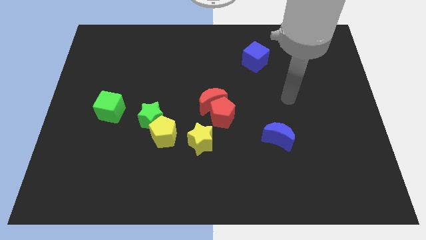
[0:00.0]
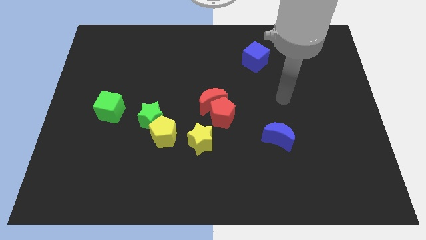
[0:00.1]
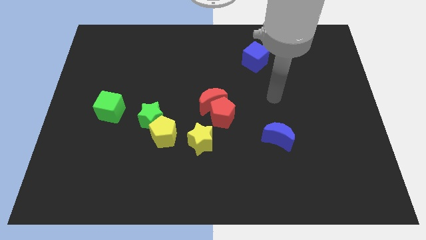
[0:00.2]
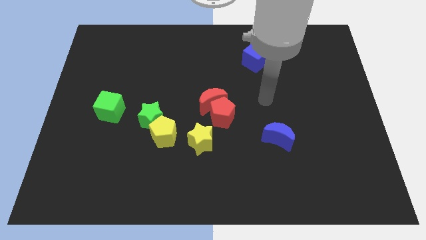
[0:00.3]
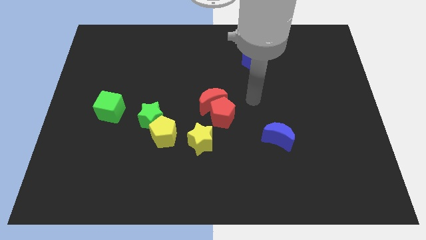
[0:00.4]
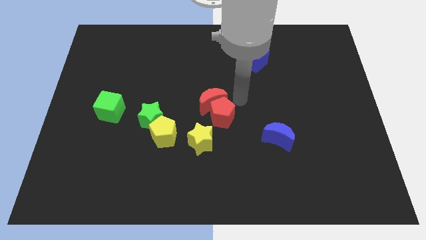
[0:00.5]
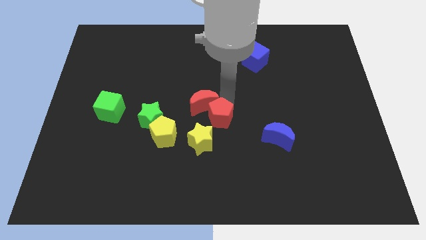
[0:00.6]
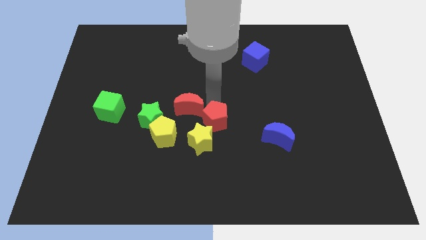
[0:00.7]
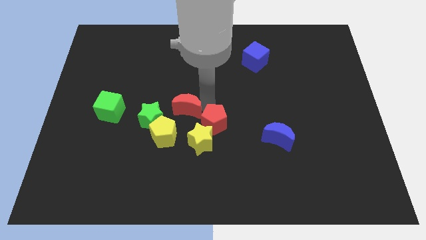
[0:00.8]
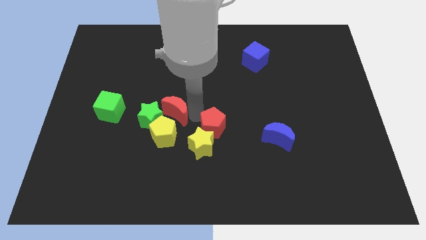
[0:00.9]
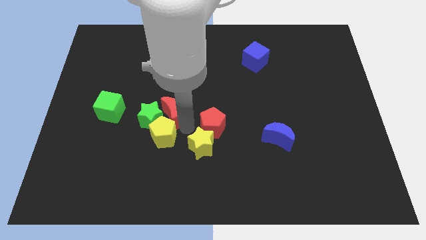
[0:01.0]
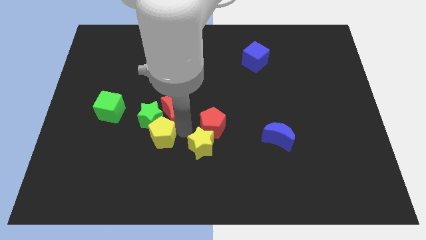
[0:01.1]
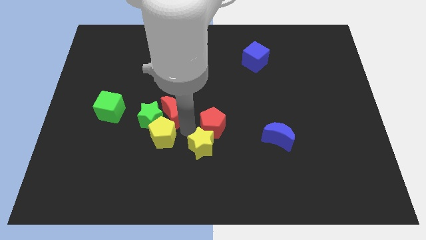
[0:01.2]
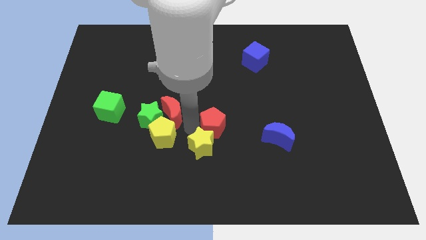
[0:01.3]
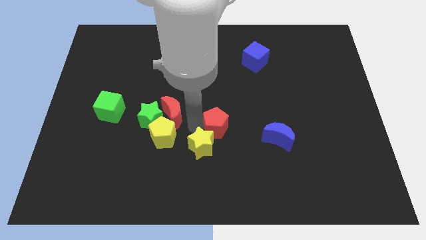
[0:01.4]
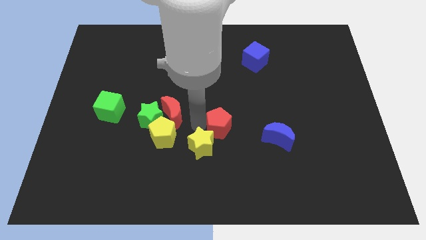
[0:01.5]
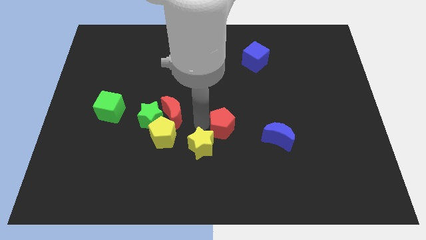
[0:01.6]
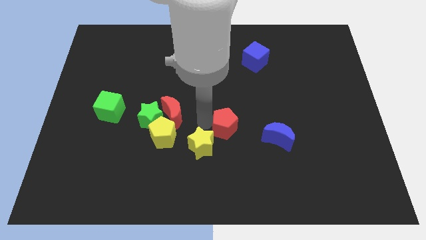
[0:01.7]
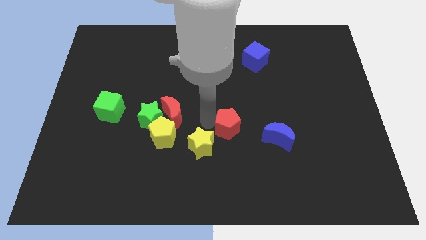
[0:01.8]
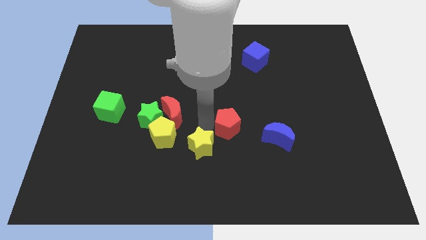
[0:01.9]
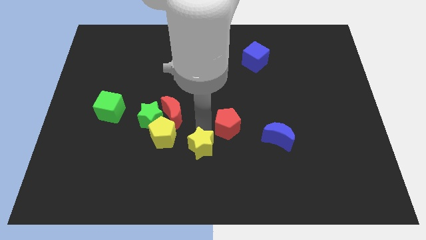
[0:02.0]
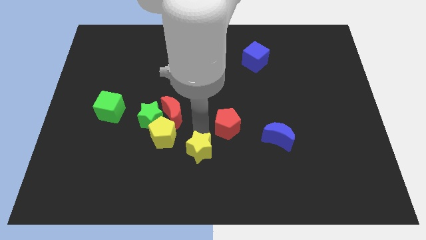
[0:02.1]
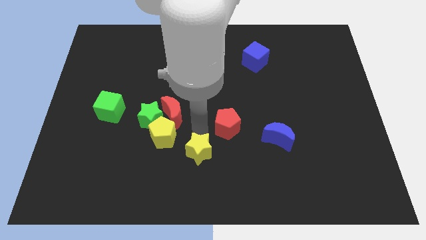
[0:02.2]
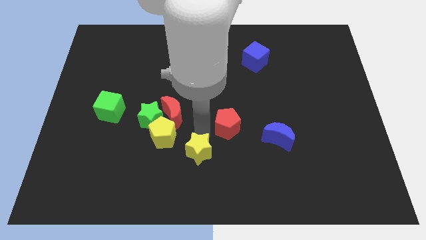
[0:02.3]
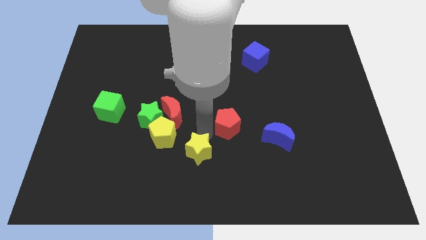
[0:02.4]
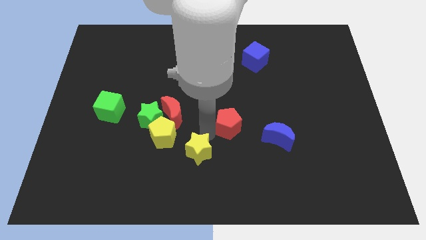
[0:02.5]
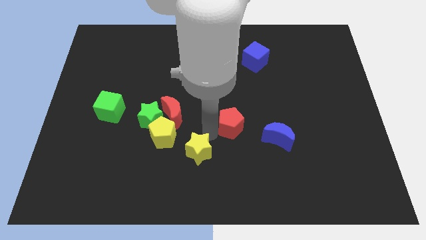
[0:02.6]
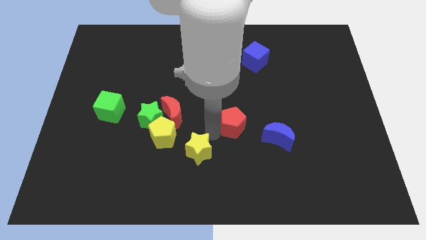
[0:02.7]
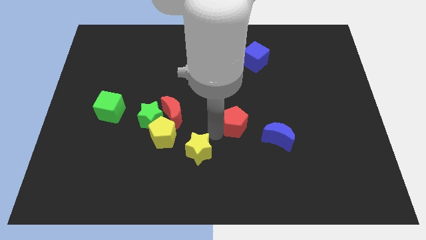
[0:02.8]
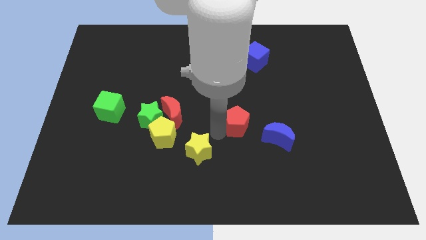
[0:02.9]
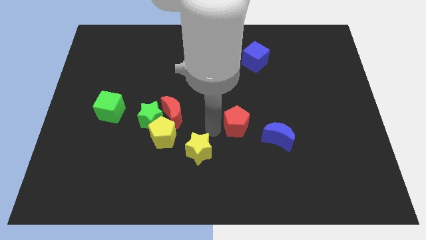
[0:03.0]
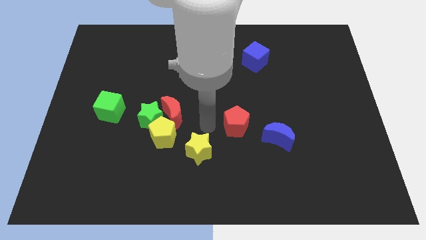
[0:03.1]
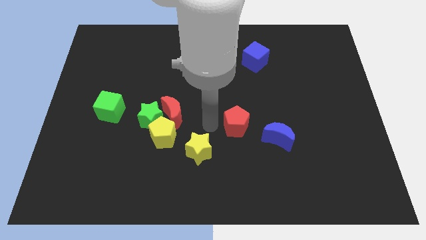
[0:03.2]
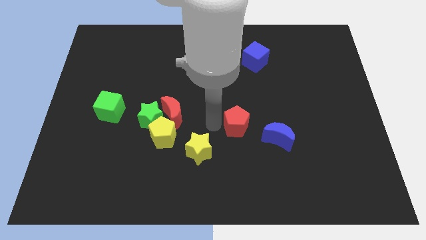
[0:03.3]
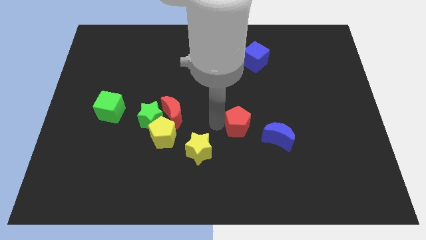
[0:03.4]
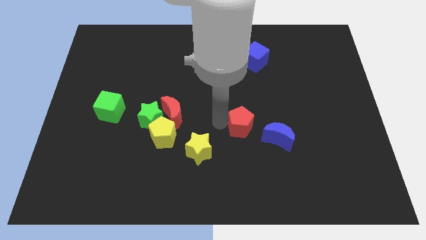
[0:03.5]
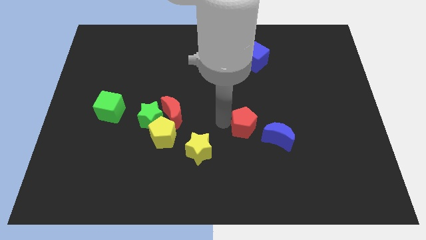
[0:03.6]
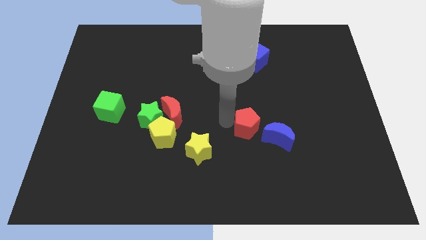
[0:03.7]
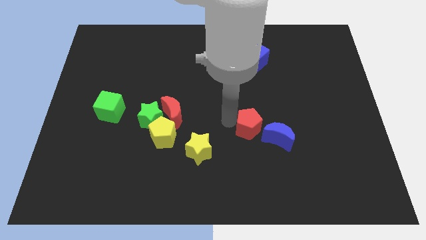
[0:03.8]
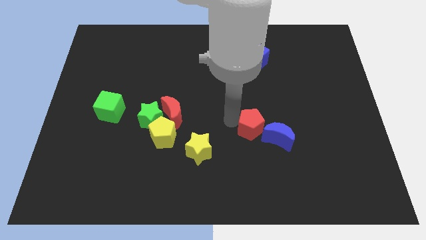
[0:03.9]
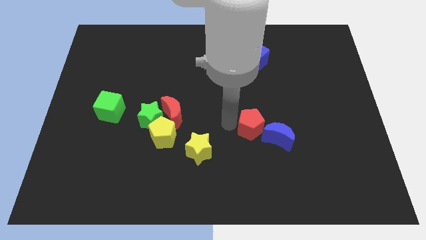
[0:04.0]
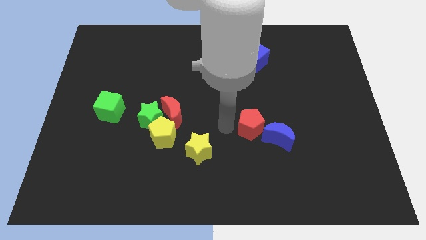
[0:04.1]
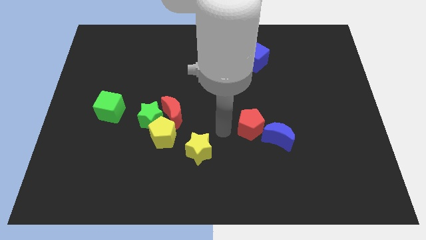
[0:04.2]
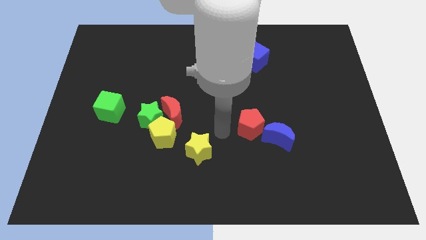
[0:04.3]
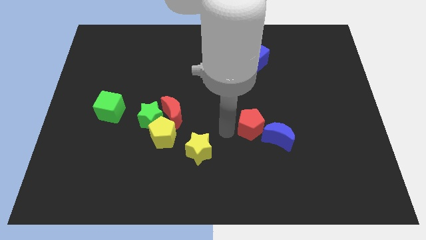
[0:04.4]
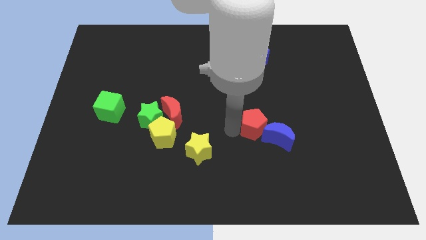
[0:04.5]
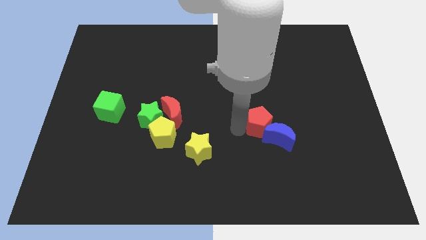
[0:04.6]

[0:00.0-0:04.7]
slightly slide the red pentagon right

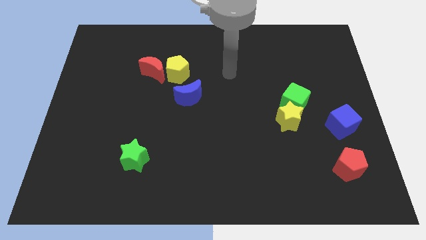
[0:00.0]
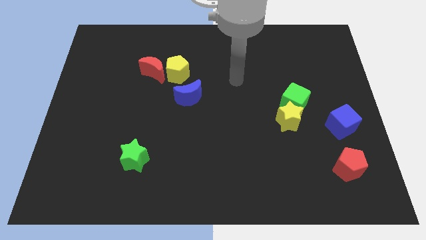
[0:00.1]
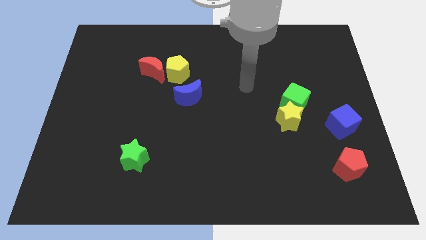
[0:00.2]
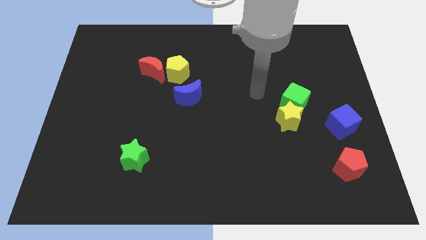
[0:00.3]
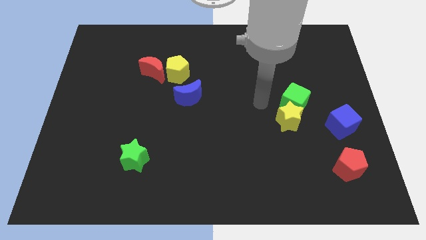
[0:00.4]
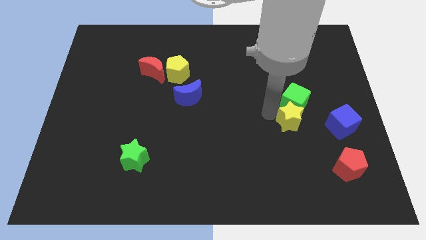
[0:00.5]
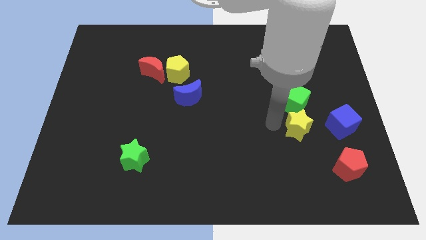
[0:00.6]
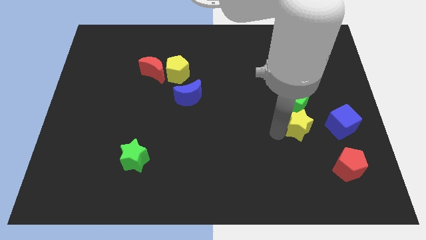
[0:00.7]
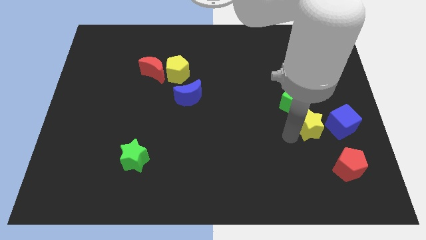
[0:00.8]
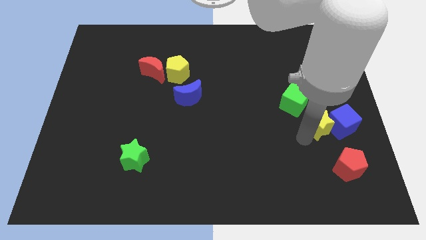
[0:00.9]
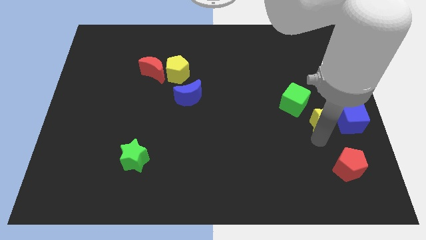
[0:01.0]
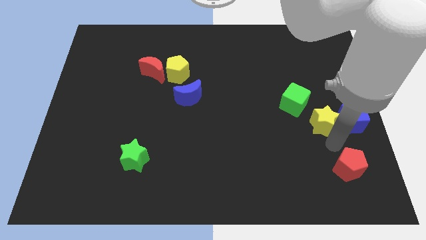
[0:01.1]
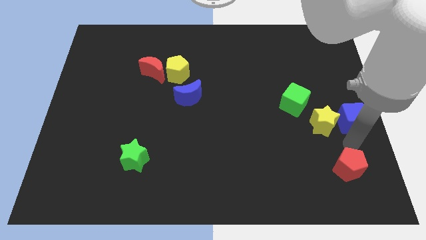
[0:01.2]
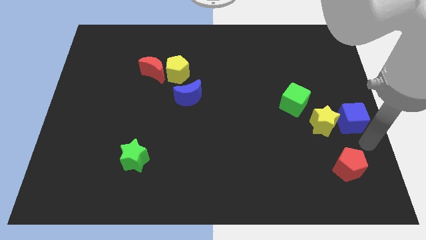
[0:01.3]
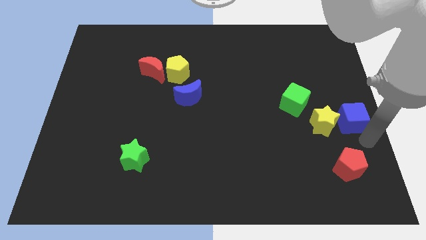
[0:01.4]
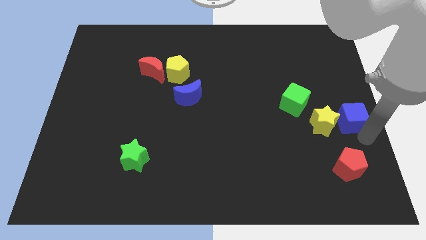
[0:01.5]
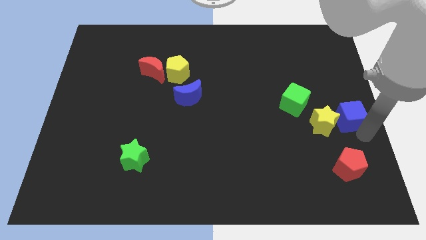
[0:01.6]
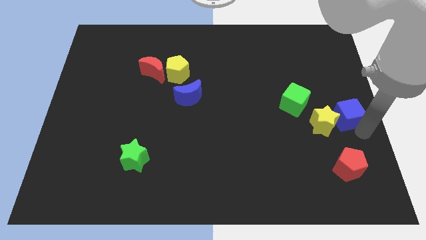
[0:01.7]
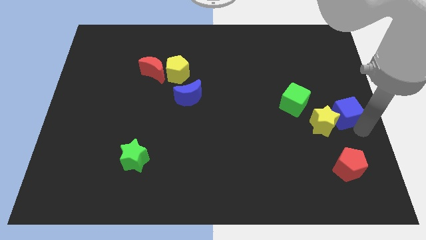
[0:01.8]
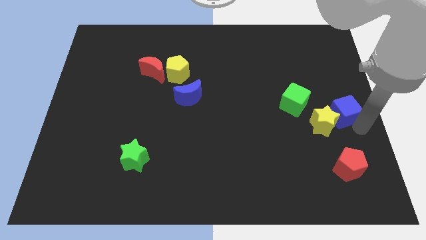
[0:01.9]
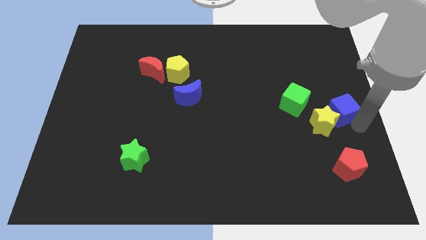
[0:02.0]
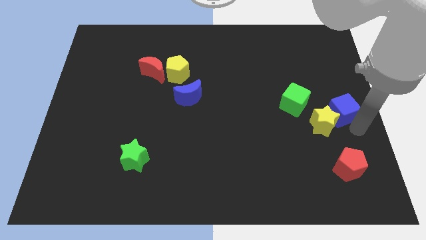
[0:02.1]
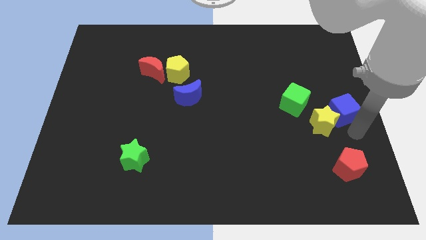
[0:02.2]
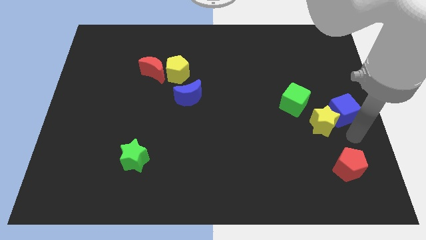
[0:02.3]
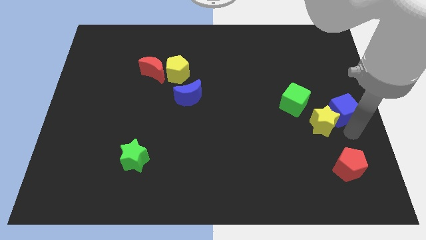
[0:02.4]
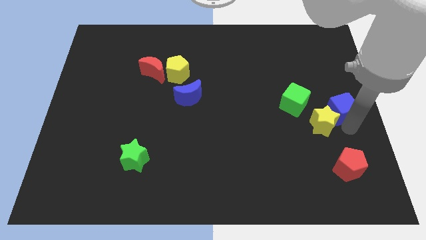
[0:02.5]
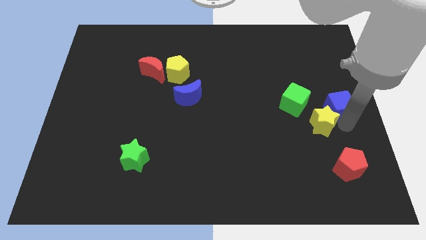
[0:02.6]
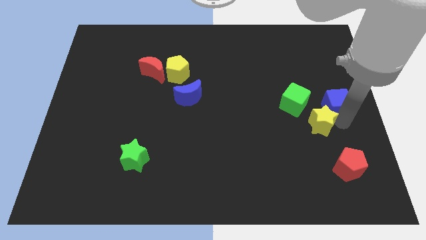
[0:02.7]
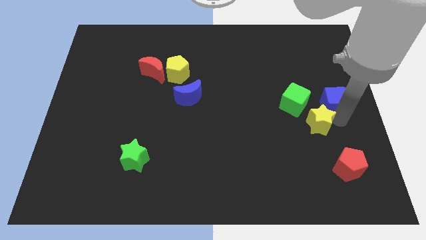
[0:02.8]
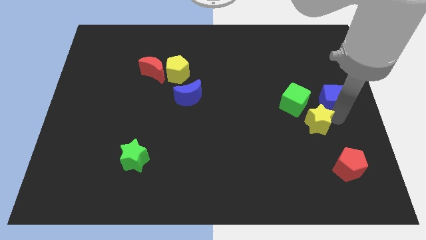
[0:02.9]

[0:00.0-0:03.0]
move the blue cube upwards a little
